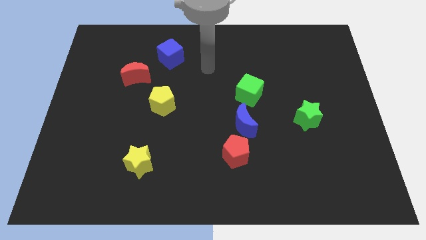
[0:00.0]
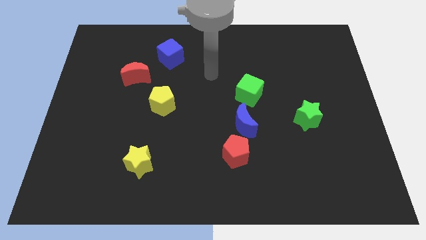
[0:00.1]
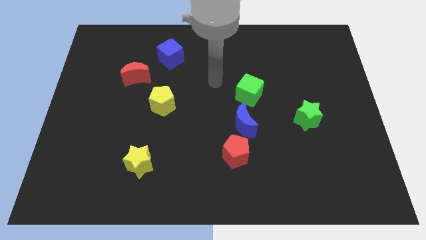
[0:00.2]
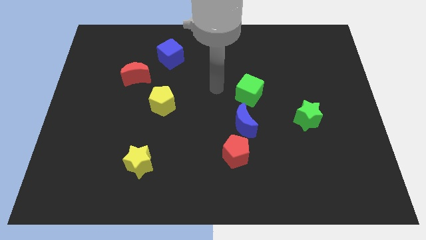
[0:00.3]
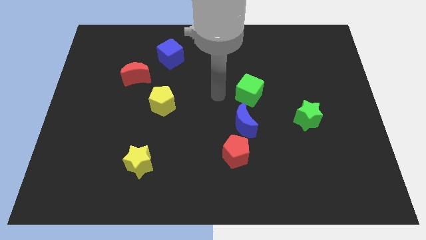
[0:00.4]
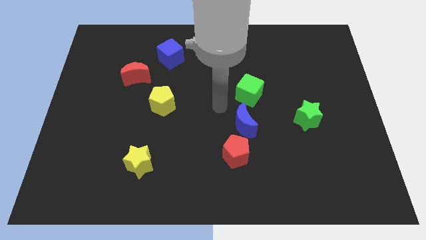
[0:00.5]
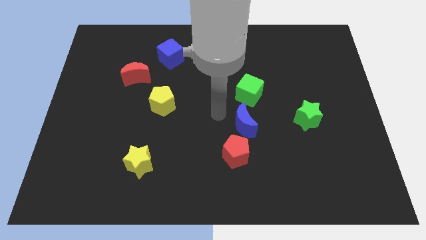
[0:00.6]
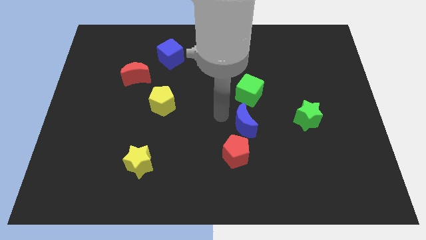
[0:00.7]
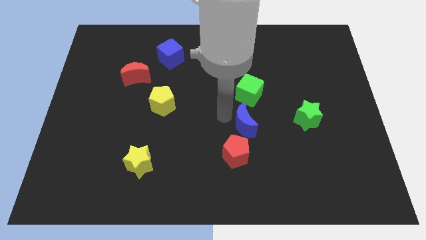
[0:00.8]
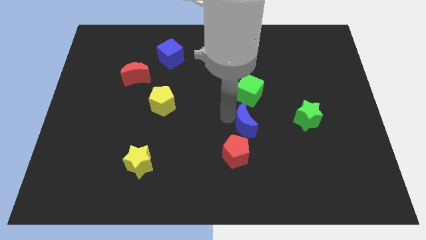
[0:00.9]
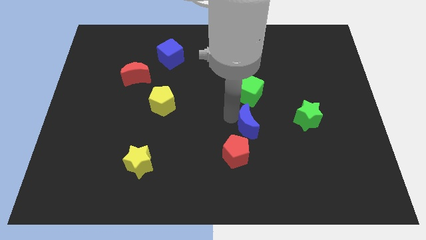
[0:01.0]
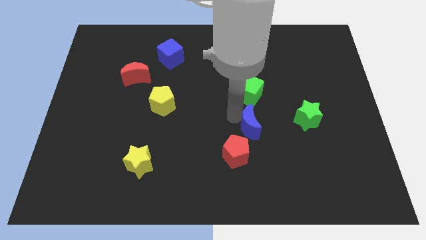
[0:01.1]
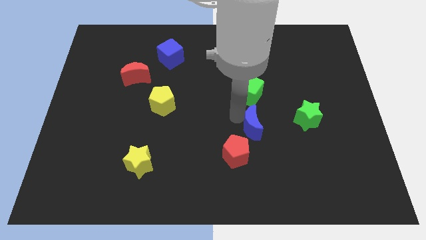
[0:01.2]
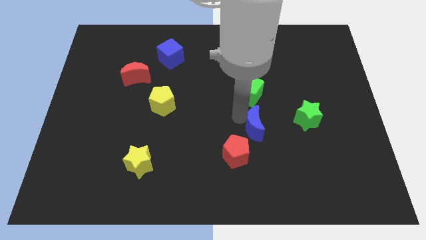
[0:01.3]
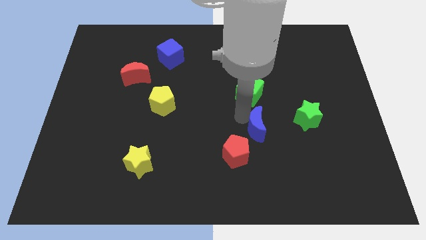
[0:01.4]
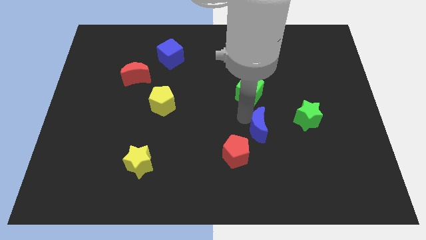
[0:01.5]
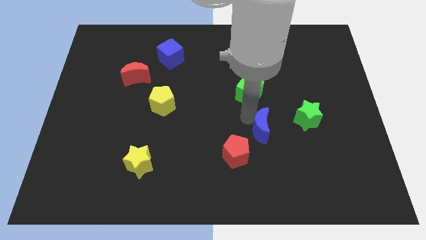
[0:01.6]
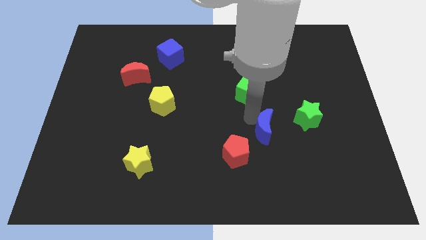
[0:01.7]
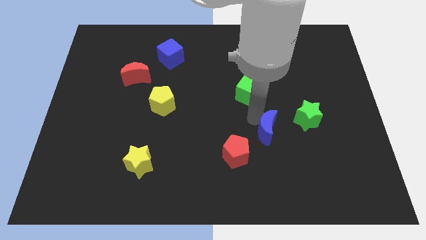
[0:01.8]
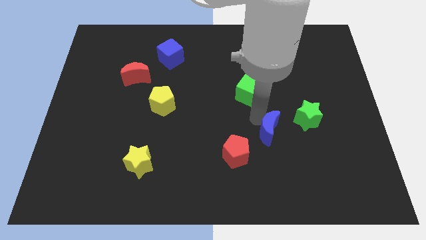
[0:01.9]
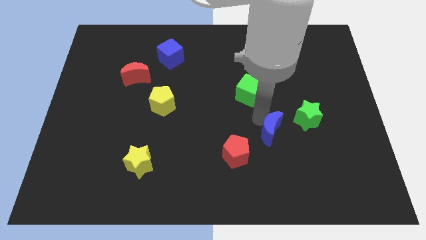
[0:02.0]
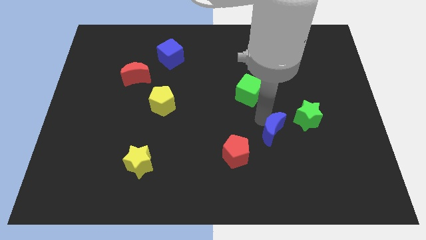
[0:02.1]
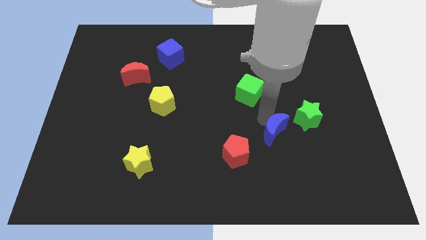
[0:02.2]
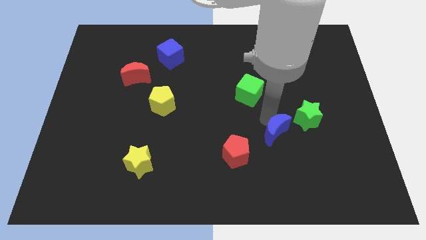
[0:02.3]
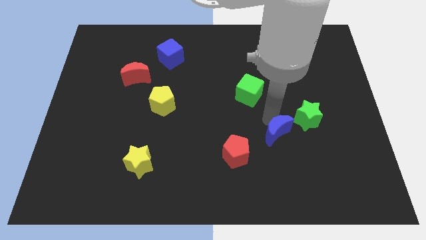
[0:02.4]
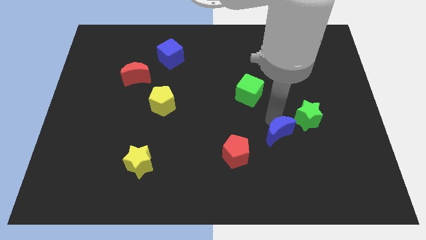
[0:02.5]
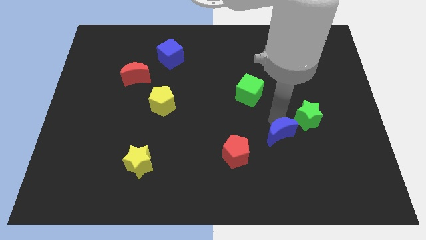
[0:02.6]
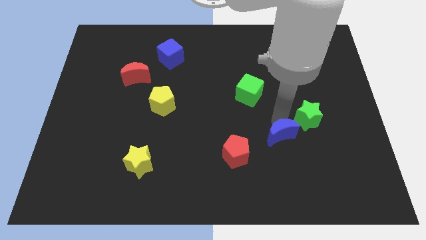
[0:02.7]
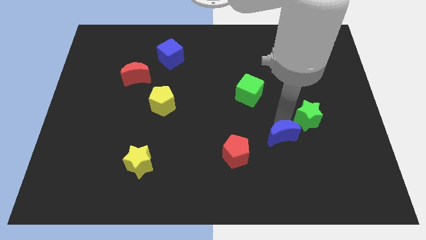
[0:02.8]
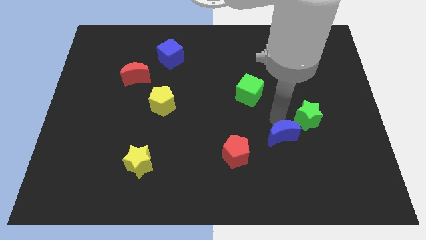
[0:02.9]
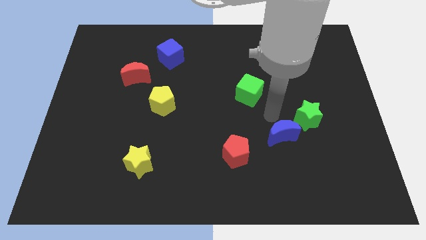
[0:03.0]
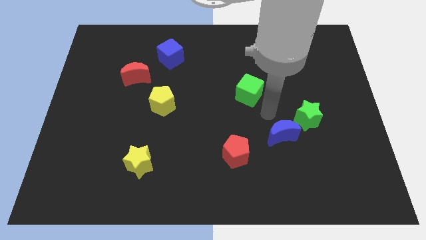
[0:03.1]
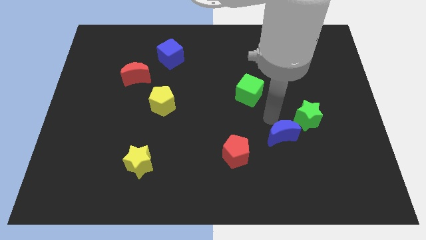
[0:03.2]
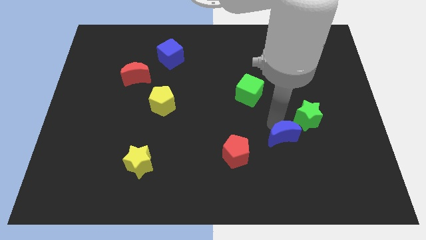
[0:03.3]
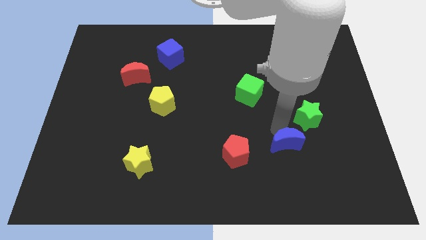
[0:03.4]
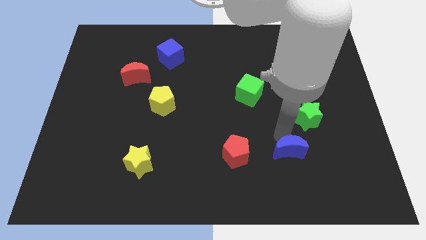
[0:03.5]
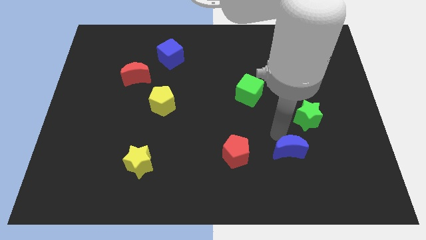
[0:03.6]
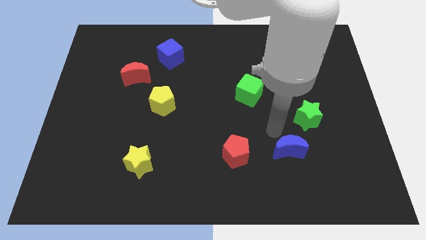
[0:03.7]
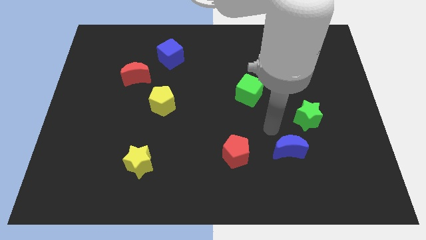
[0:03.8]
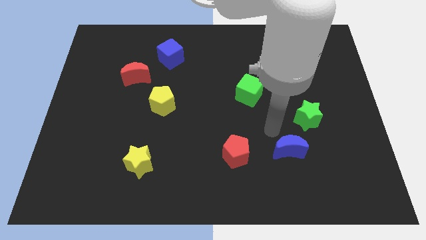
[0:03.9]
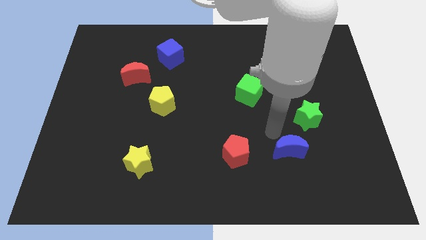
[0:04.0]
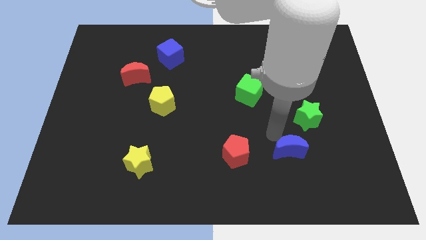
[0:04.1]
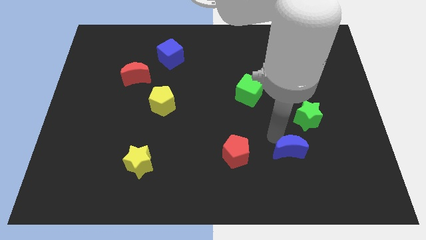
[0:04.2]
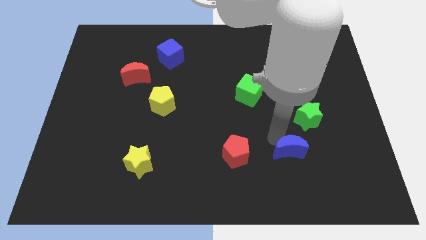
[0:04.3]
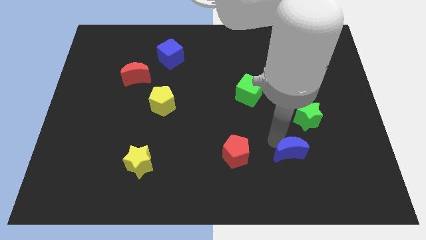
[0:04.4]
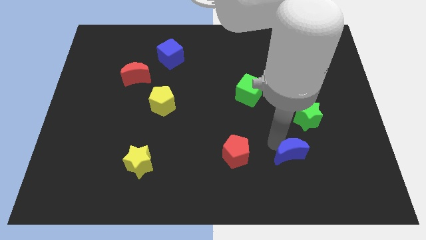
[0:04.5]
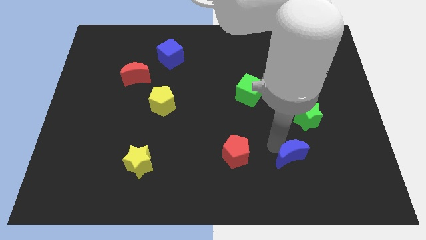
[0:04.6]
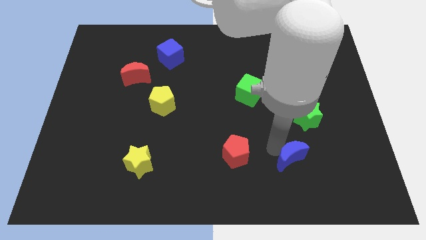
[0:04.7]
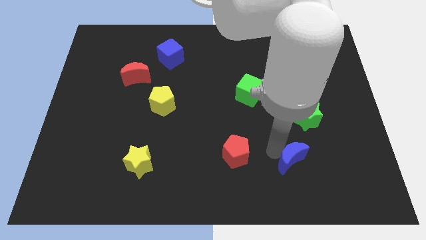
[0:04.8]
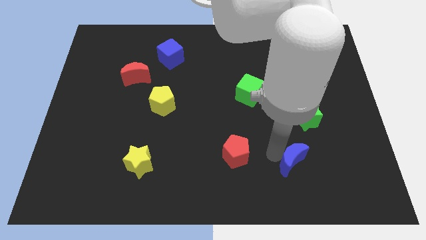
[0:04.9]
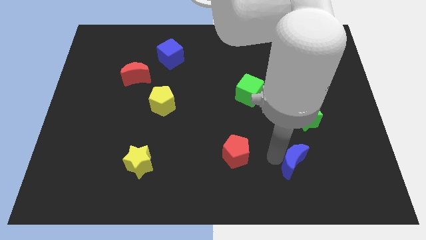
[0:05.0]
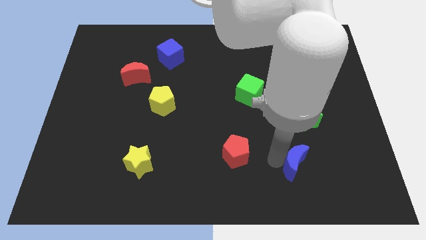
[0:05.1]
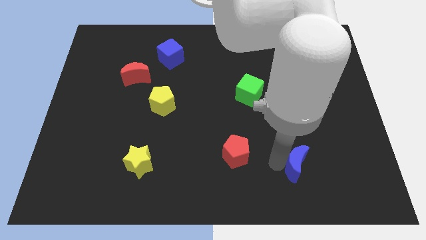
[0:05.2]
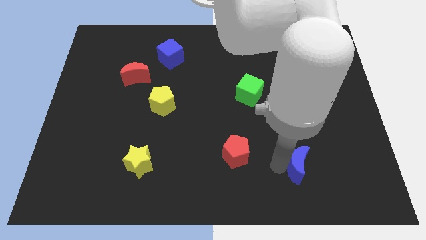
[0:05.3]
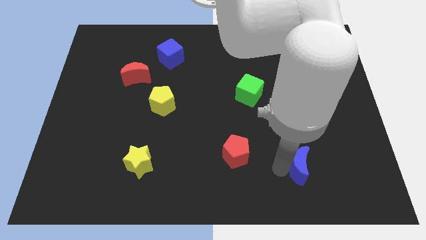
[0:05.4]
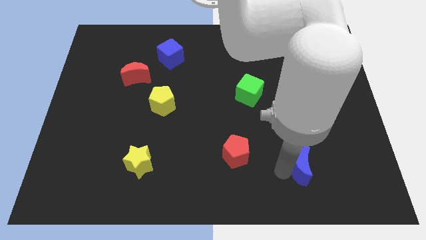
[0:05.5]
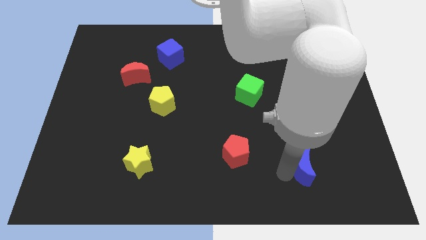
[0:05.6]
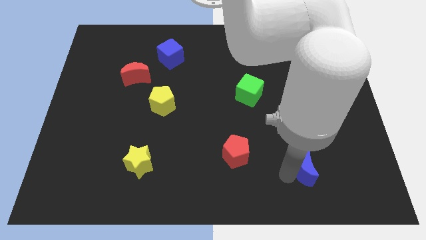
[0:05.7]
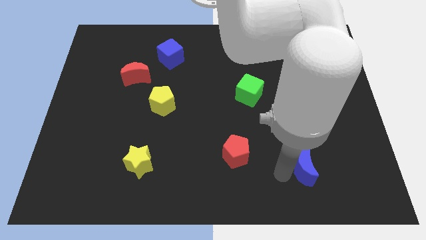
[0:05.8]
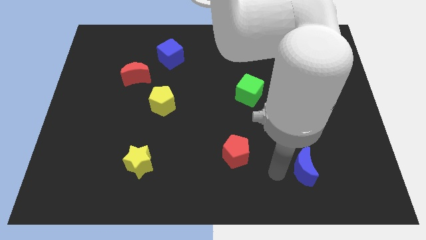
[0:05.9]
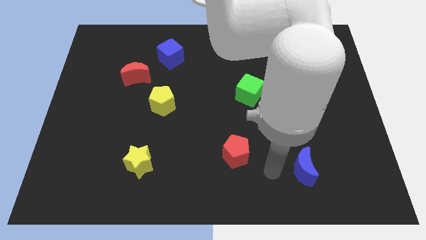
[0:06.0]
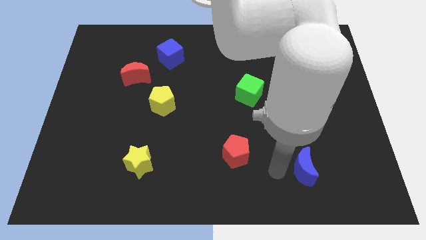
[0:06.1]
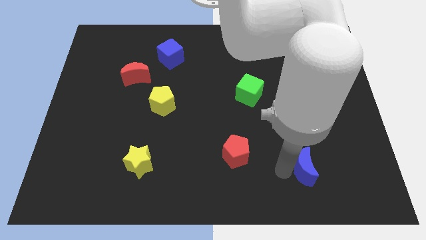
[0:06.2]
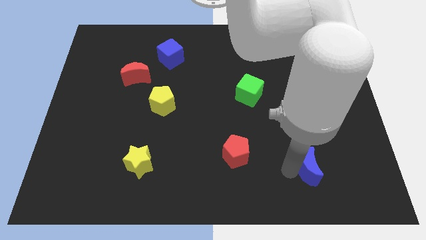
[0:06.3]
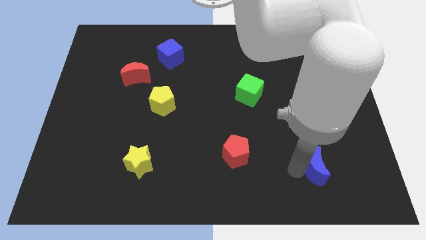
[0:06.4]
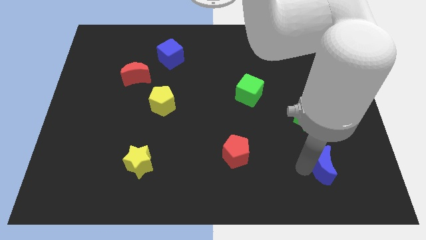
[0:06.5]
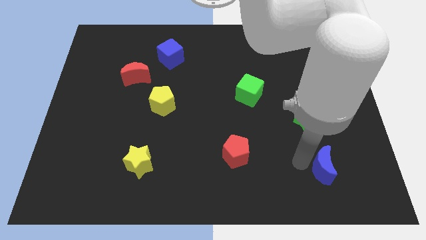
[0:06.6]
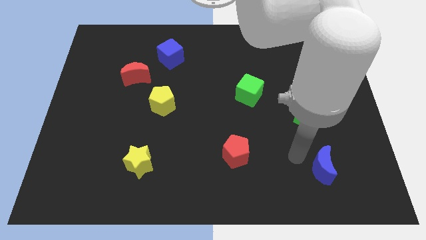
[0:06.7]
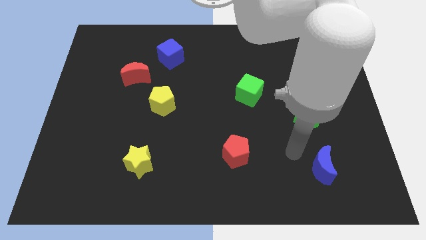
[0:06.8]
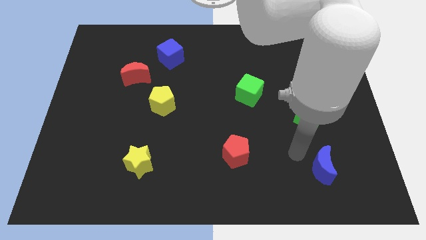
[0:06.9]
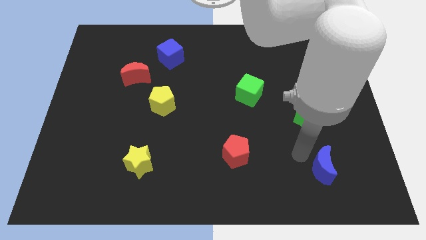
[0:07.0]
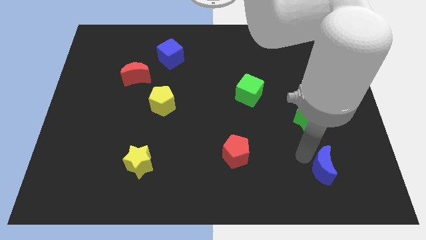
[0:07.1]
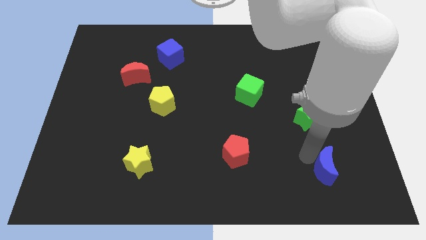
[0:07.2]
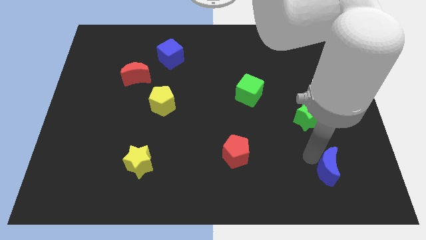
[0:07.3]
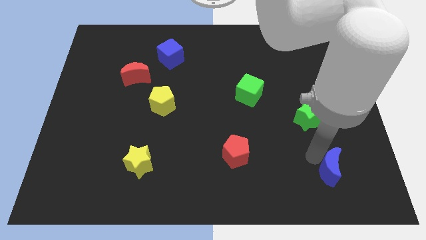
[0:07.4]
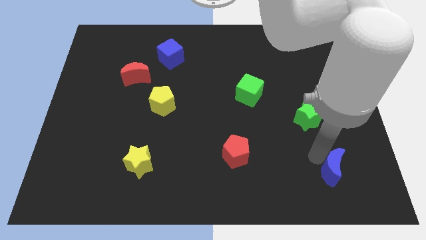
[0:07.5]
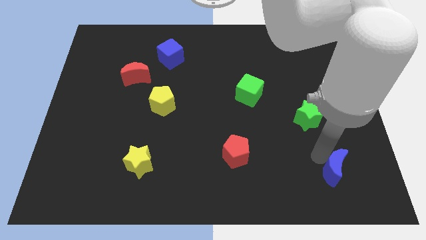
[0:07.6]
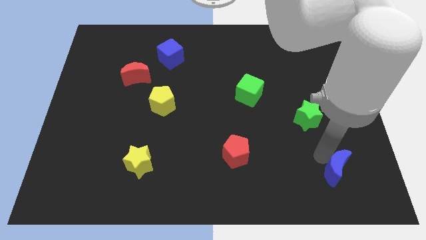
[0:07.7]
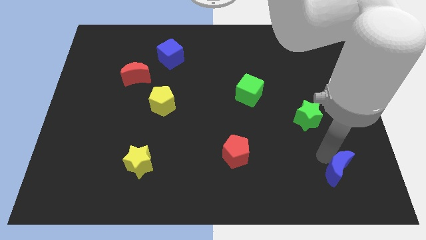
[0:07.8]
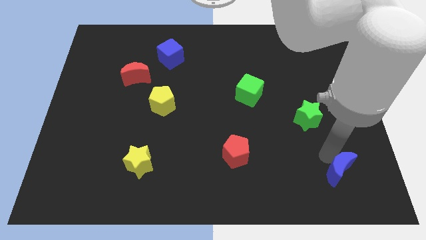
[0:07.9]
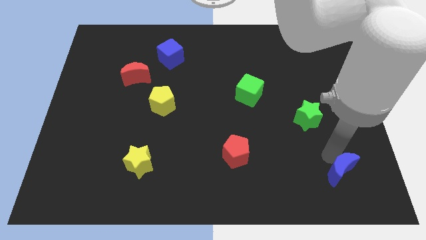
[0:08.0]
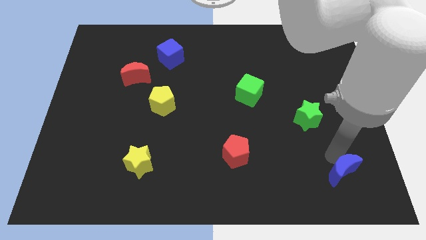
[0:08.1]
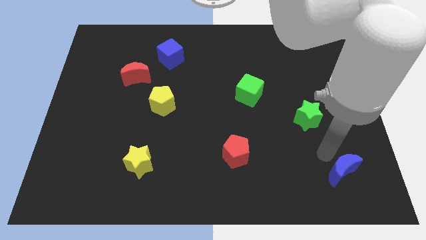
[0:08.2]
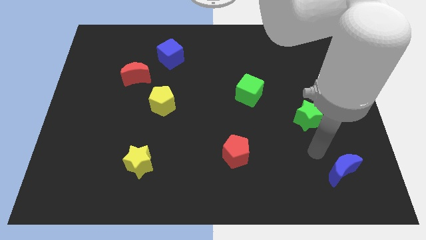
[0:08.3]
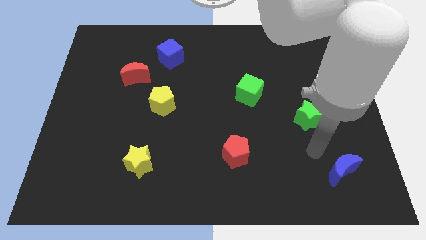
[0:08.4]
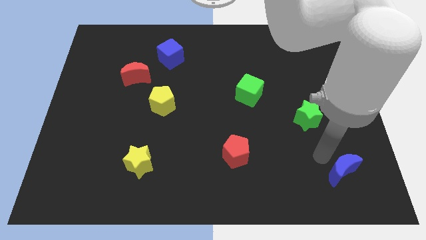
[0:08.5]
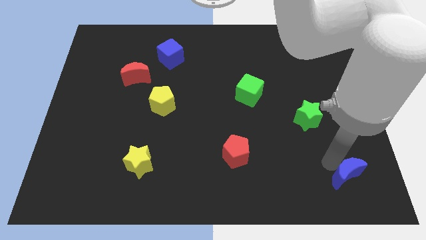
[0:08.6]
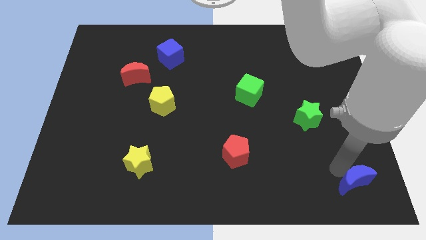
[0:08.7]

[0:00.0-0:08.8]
move the blue moon to the lower right corner
